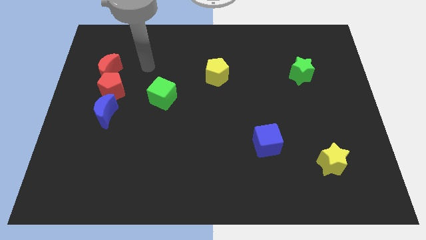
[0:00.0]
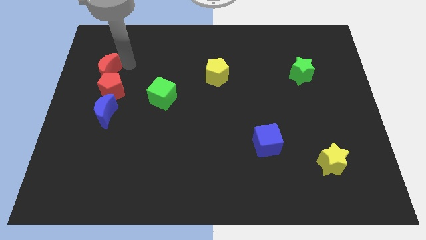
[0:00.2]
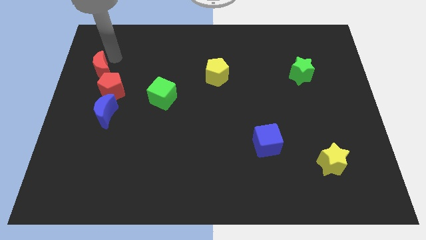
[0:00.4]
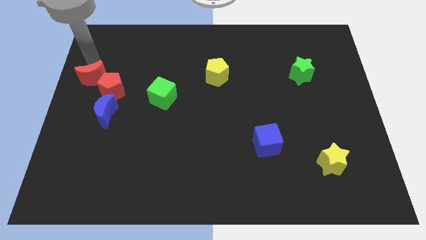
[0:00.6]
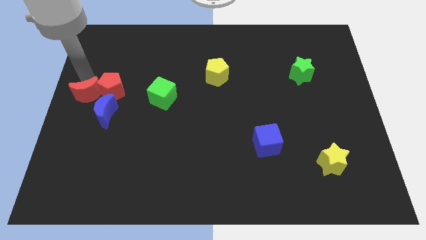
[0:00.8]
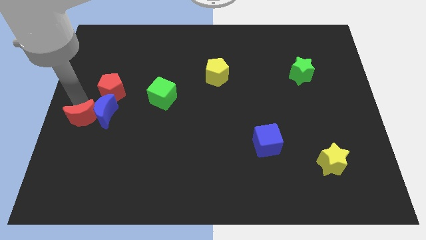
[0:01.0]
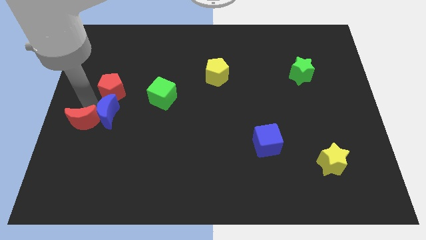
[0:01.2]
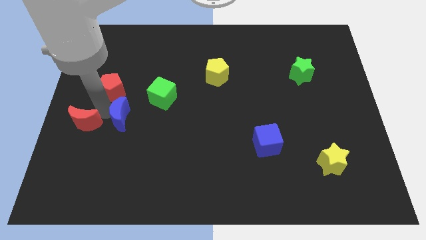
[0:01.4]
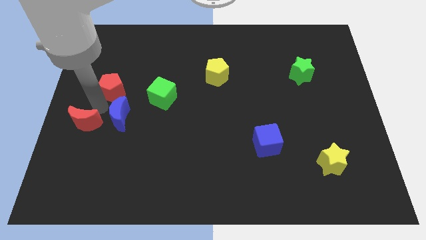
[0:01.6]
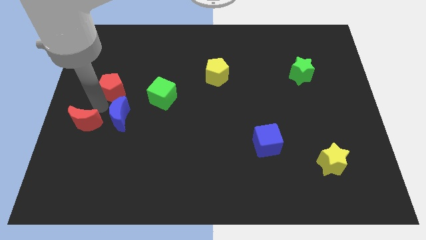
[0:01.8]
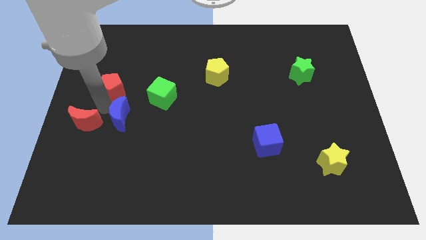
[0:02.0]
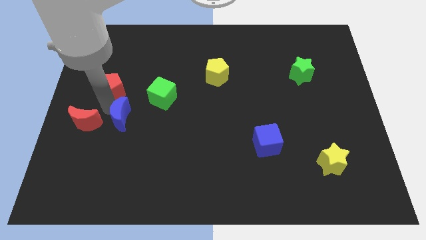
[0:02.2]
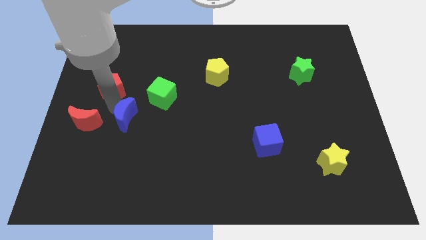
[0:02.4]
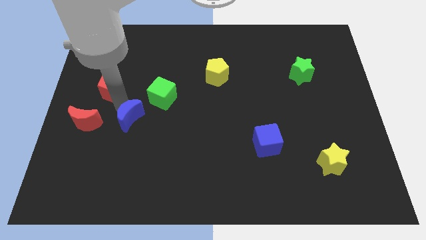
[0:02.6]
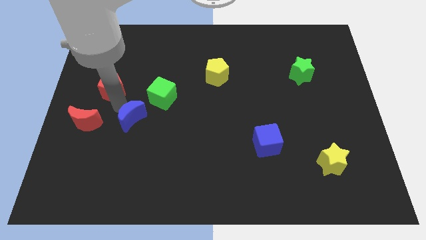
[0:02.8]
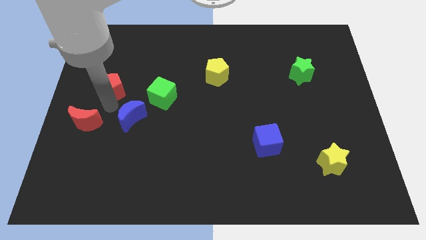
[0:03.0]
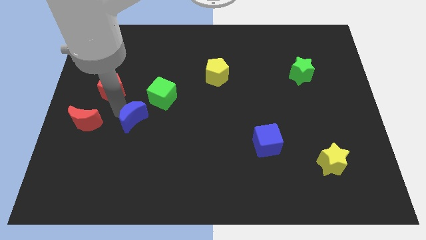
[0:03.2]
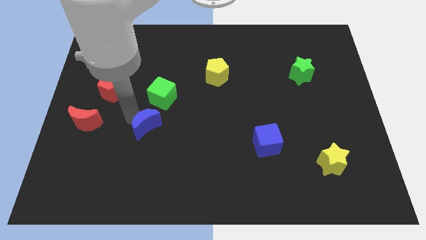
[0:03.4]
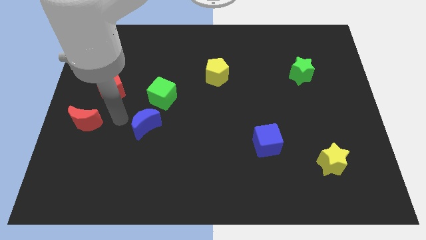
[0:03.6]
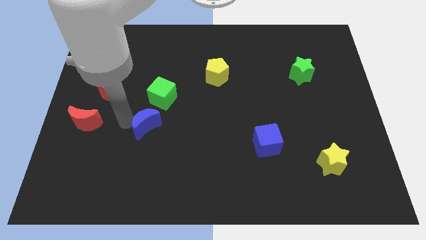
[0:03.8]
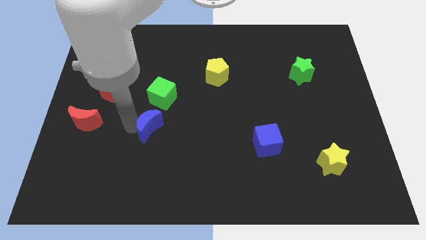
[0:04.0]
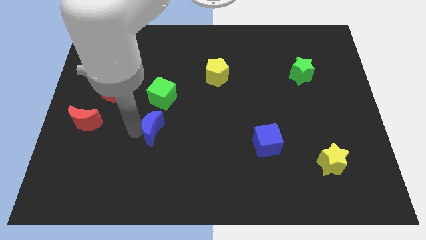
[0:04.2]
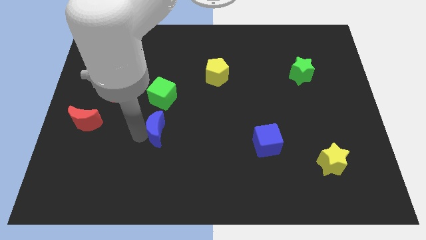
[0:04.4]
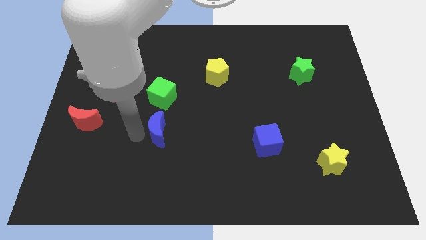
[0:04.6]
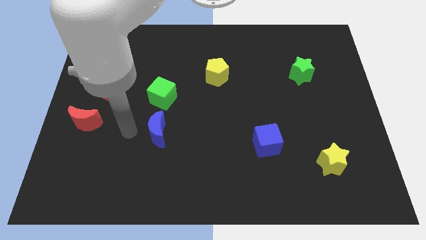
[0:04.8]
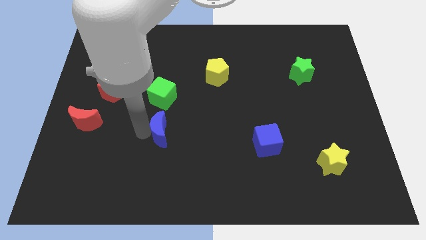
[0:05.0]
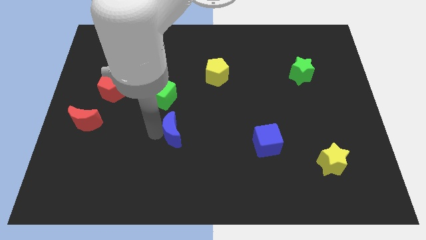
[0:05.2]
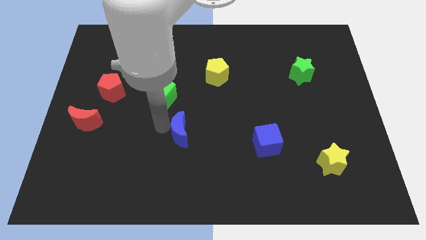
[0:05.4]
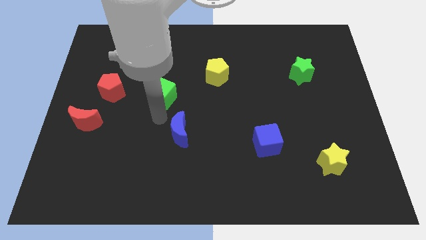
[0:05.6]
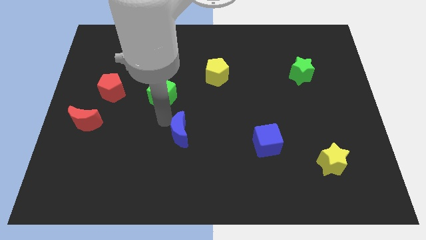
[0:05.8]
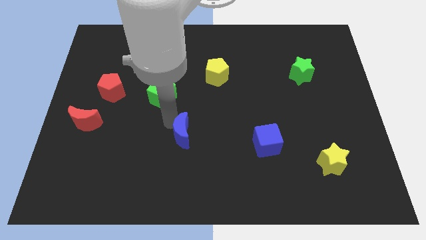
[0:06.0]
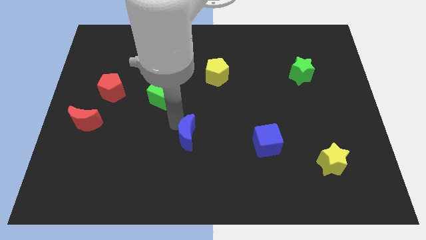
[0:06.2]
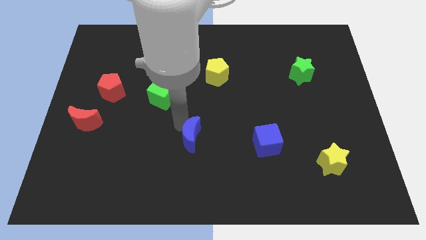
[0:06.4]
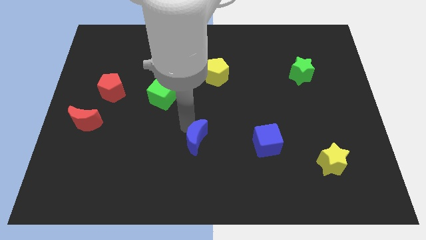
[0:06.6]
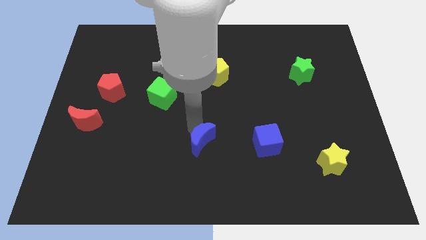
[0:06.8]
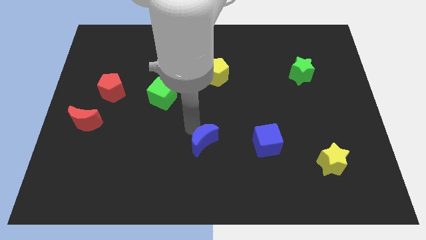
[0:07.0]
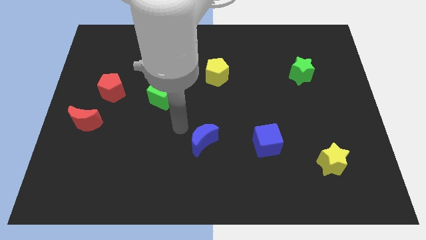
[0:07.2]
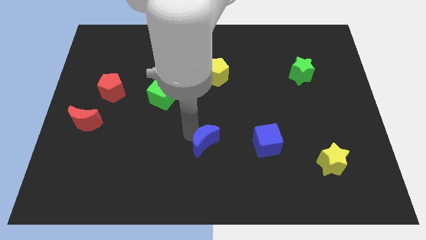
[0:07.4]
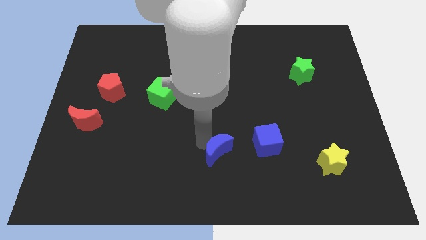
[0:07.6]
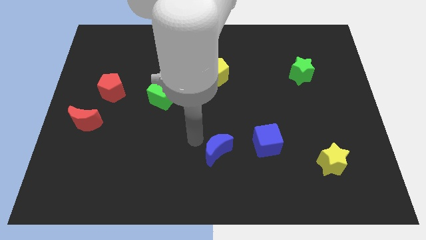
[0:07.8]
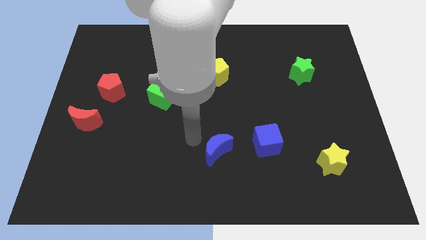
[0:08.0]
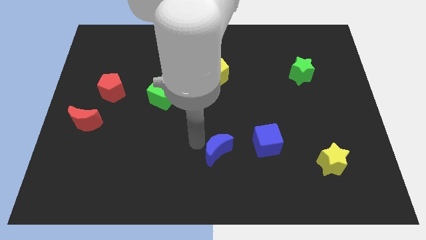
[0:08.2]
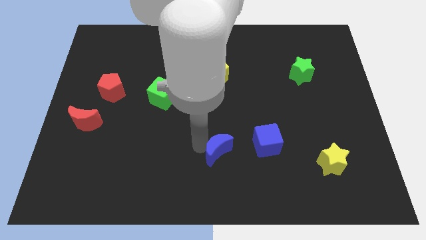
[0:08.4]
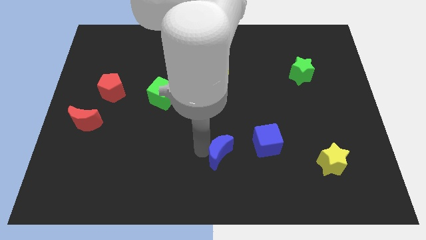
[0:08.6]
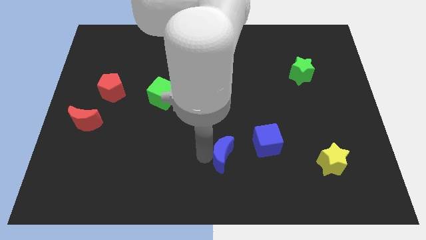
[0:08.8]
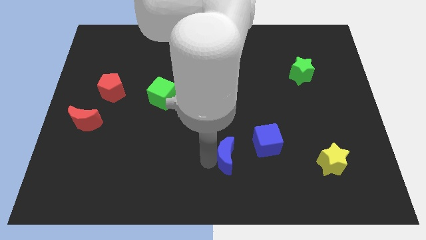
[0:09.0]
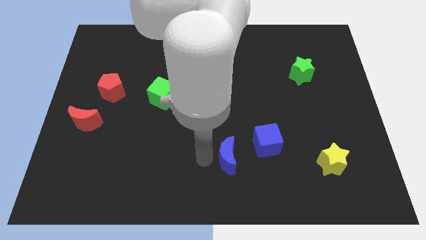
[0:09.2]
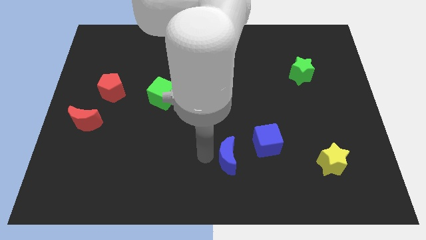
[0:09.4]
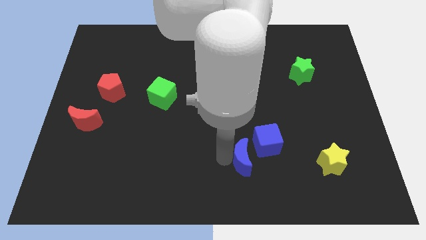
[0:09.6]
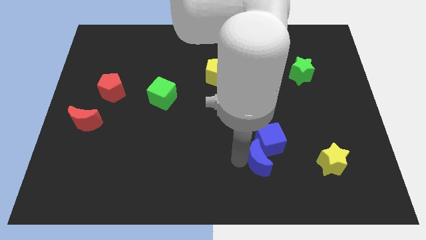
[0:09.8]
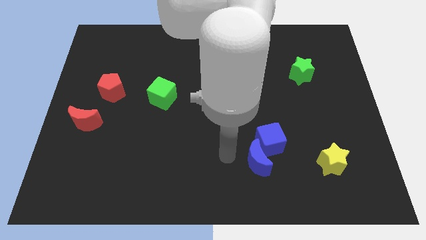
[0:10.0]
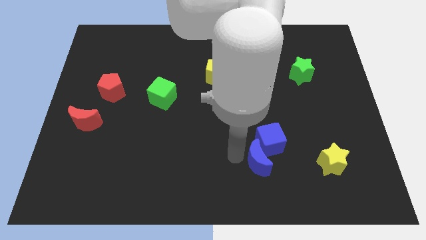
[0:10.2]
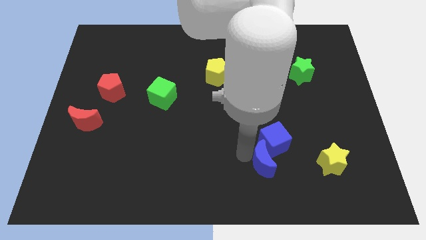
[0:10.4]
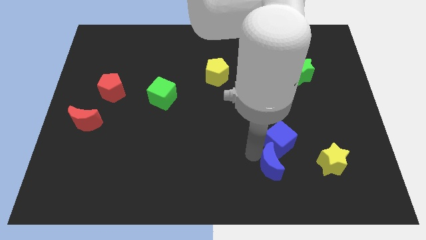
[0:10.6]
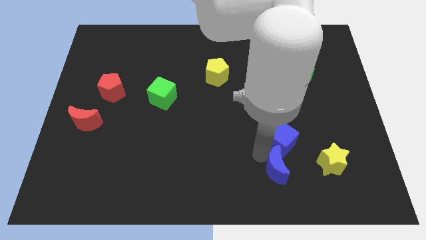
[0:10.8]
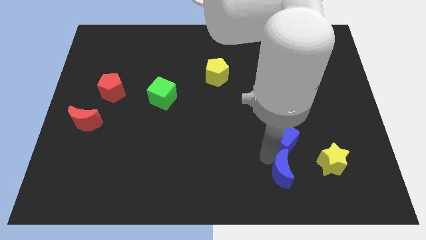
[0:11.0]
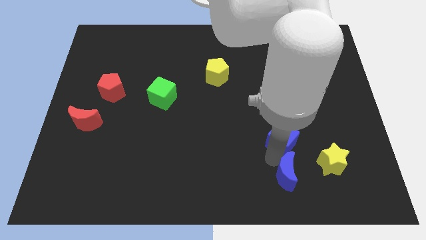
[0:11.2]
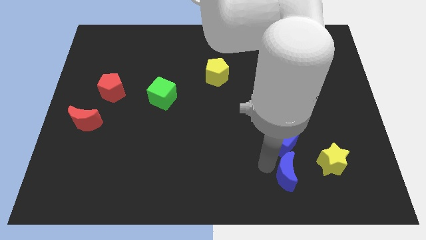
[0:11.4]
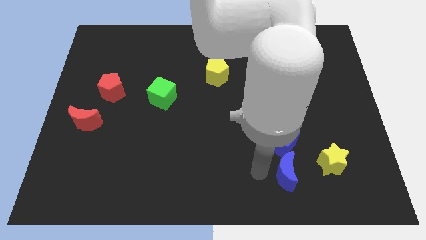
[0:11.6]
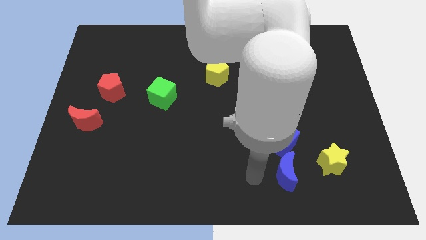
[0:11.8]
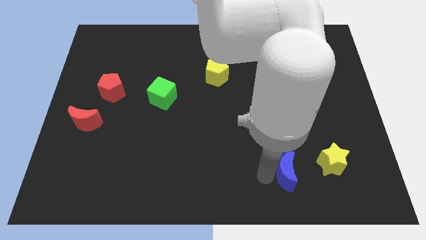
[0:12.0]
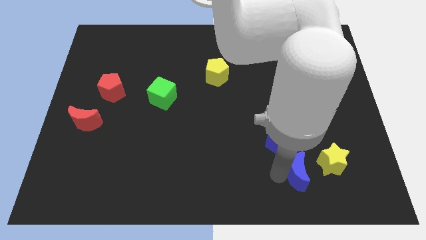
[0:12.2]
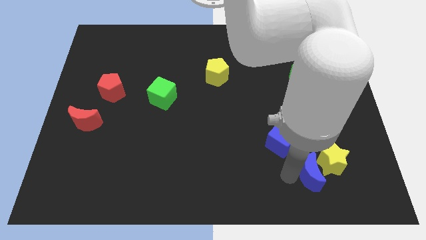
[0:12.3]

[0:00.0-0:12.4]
slide the blue moon close to the yellow star

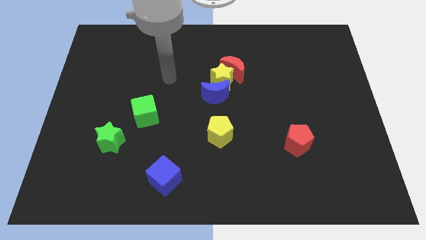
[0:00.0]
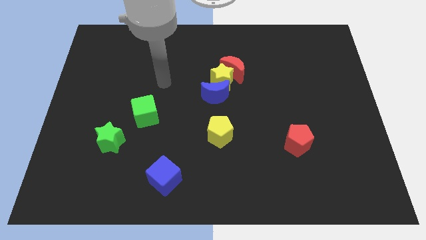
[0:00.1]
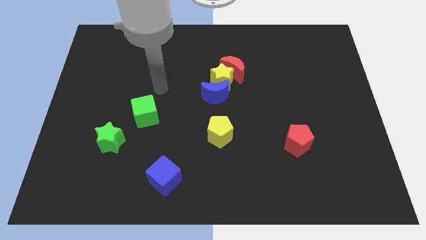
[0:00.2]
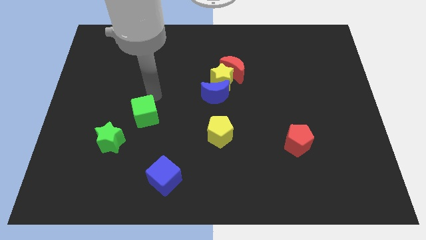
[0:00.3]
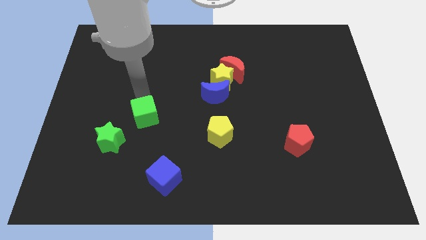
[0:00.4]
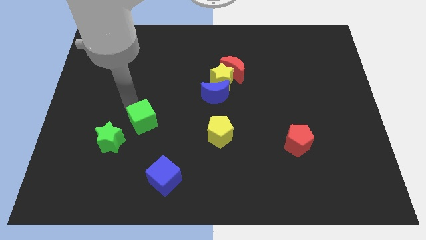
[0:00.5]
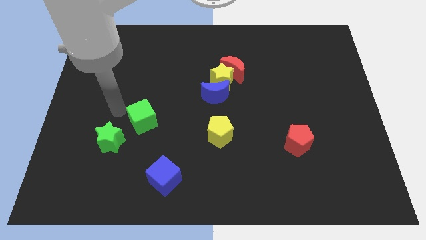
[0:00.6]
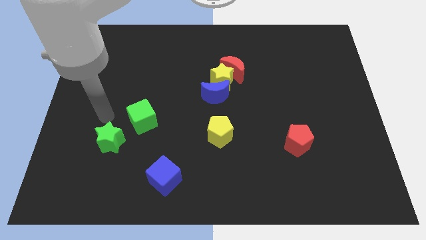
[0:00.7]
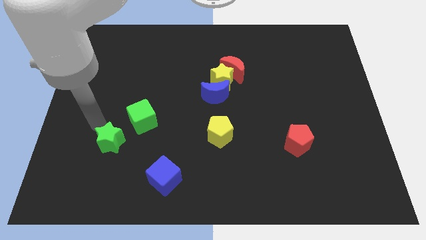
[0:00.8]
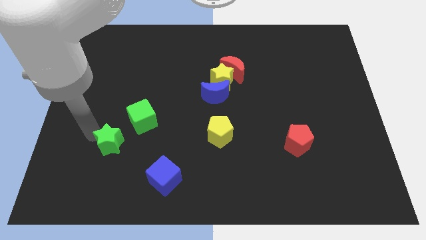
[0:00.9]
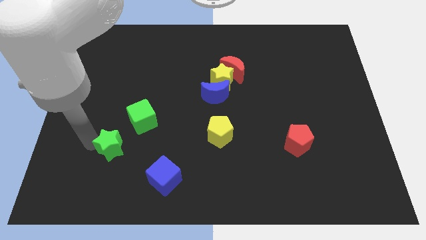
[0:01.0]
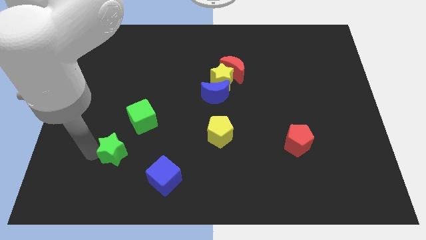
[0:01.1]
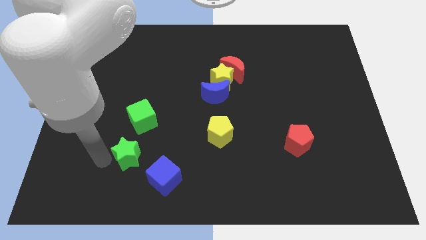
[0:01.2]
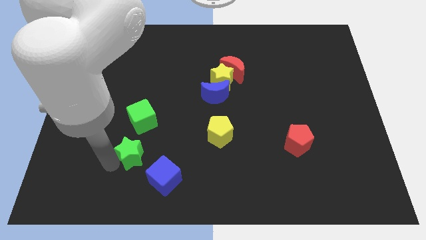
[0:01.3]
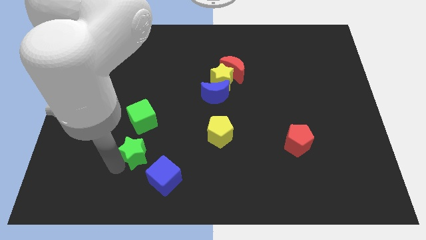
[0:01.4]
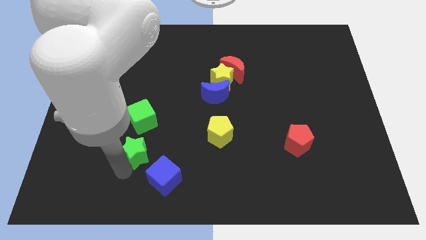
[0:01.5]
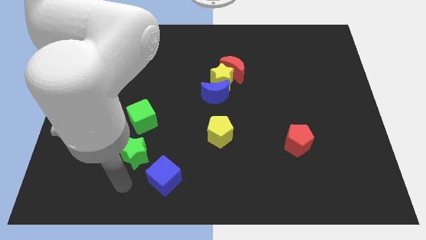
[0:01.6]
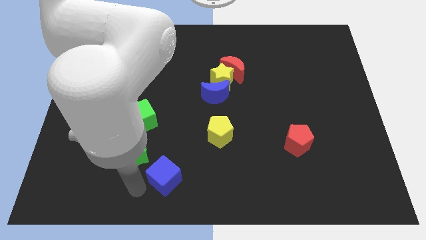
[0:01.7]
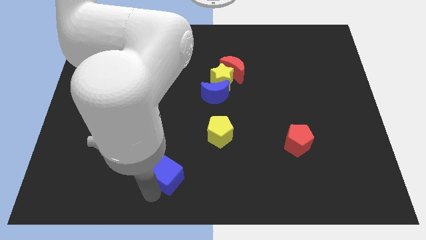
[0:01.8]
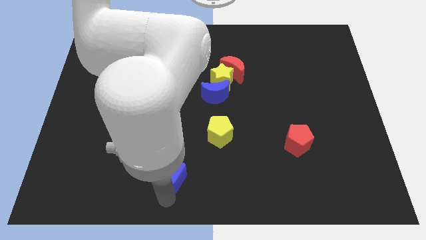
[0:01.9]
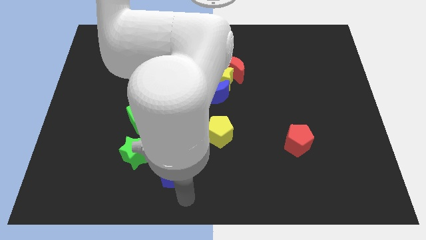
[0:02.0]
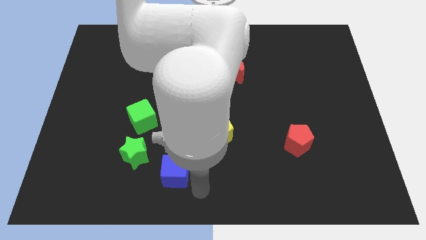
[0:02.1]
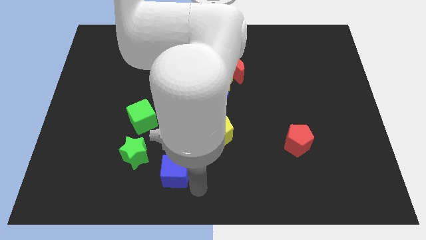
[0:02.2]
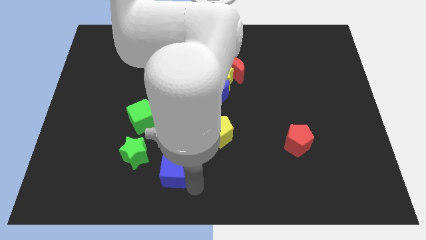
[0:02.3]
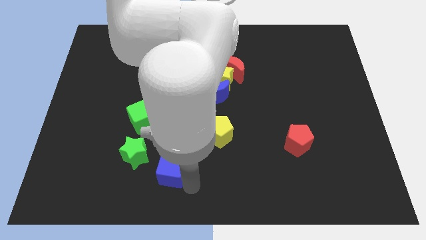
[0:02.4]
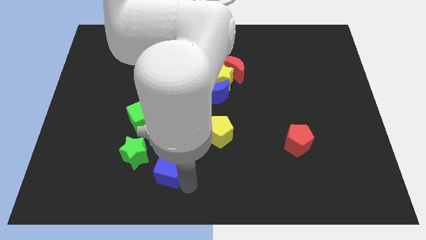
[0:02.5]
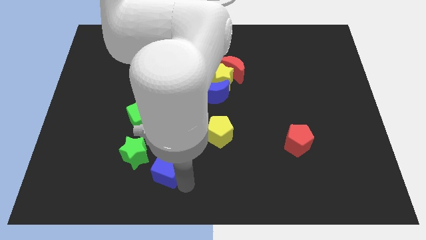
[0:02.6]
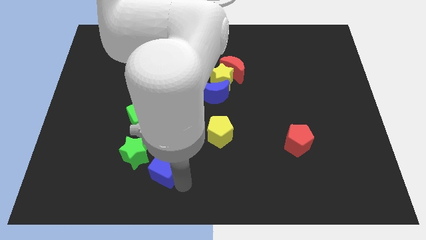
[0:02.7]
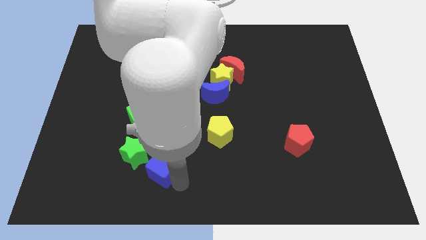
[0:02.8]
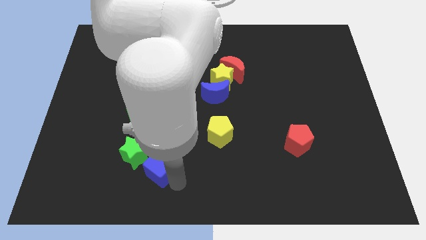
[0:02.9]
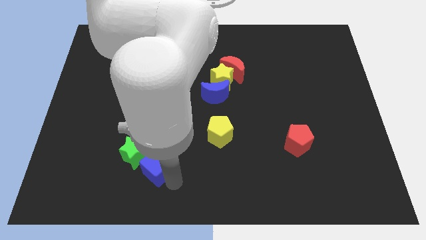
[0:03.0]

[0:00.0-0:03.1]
push the blue cube next to the green star
